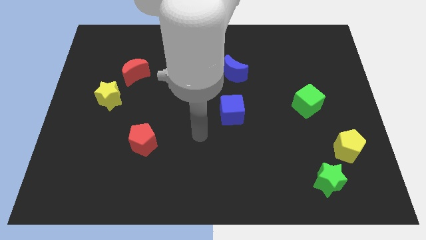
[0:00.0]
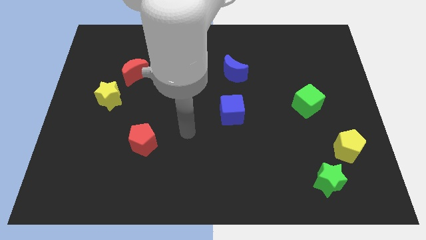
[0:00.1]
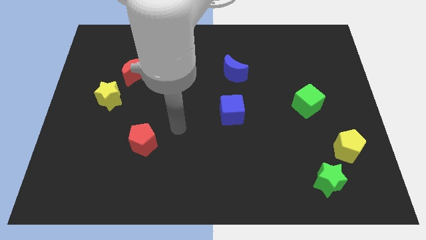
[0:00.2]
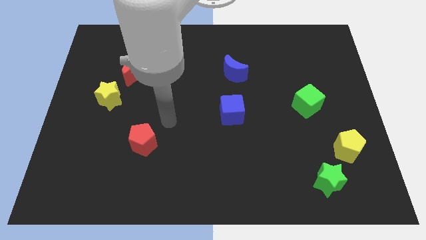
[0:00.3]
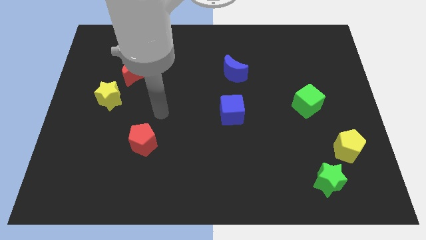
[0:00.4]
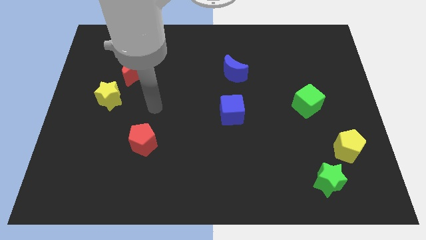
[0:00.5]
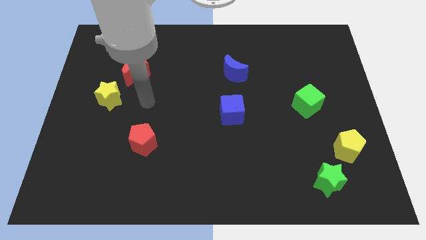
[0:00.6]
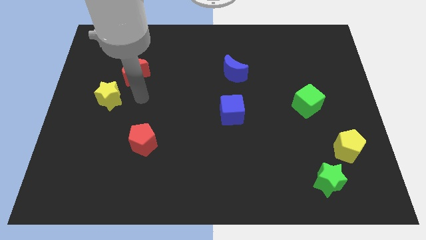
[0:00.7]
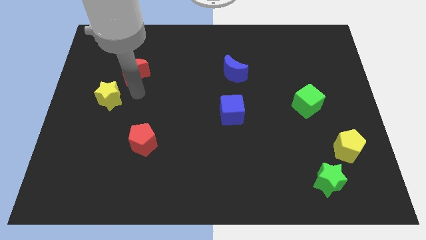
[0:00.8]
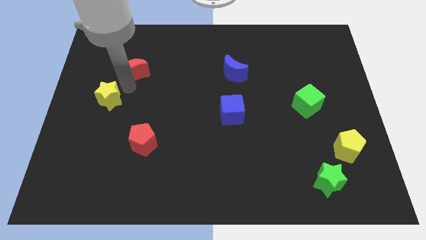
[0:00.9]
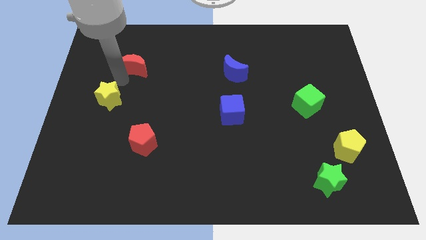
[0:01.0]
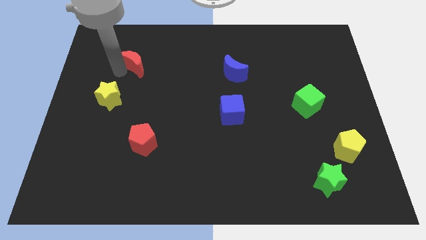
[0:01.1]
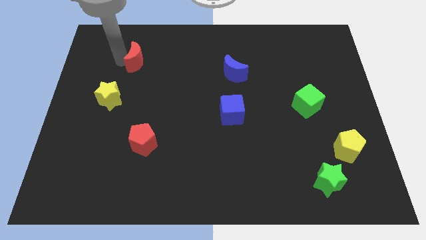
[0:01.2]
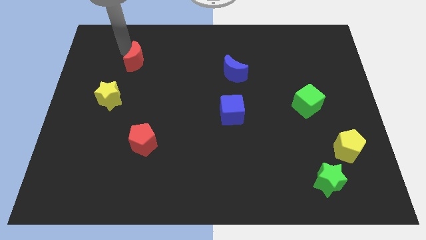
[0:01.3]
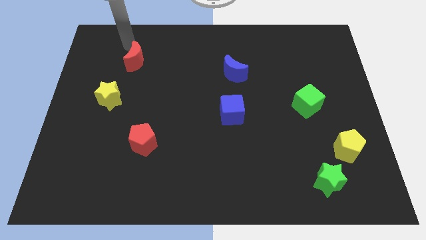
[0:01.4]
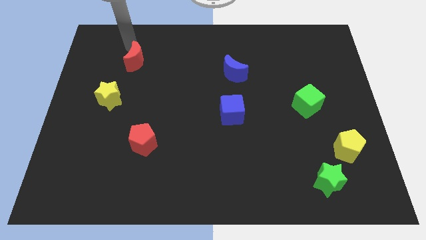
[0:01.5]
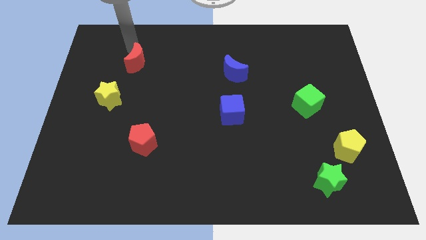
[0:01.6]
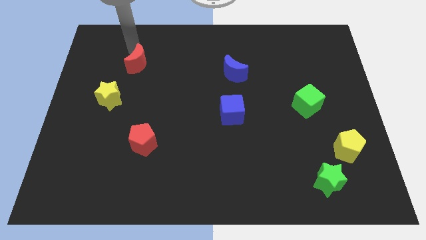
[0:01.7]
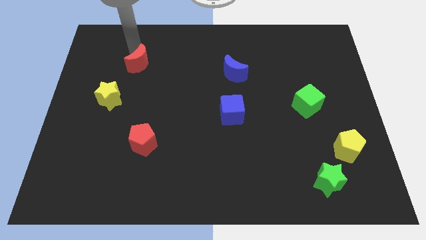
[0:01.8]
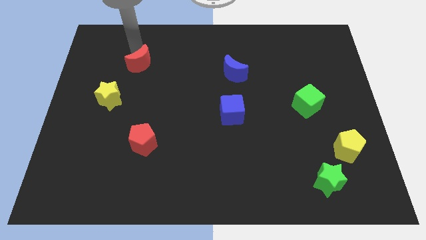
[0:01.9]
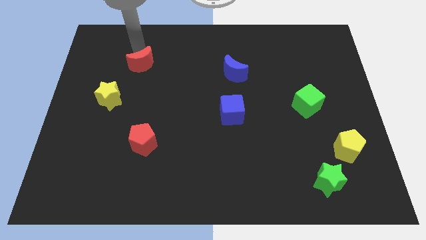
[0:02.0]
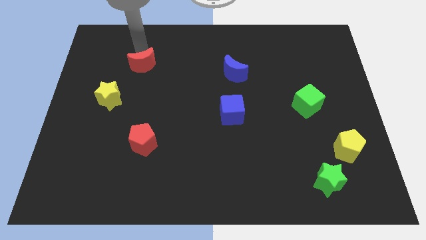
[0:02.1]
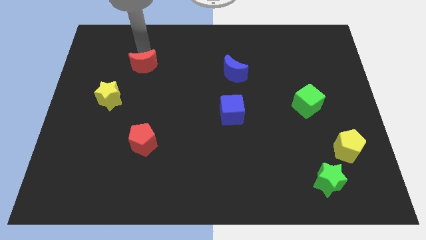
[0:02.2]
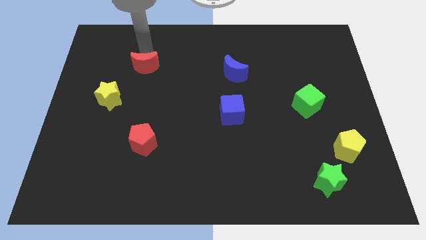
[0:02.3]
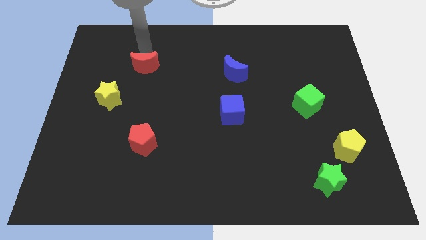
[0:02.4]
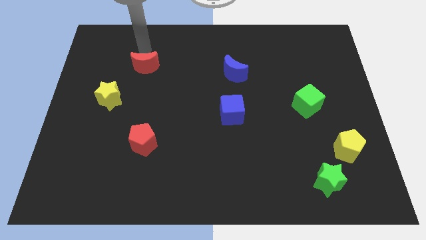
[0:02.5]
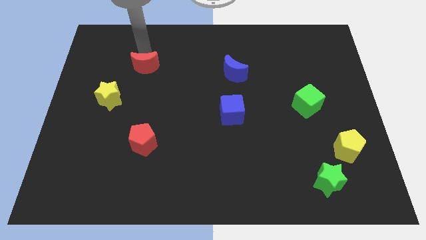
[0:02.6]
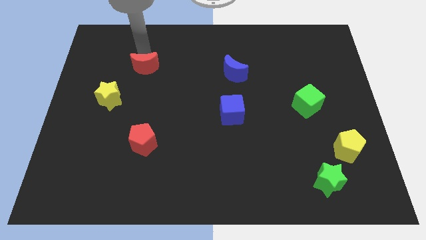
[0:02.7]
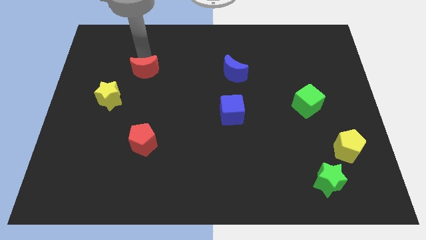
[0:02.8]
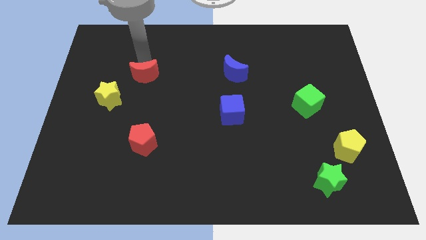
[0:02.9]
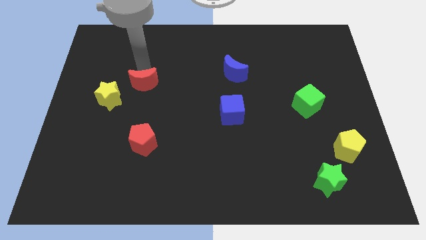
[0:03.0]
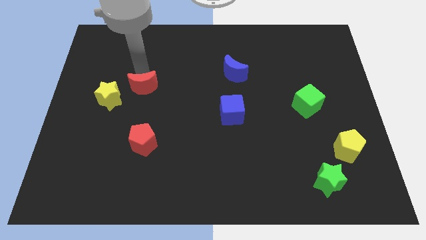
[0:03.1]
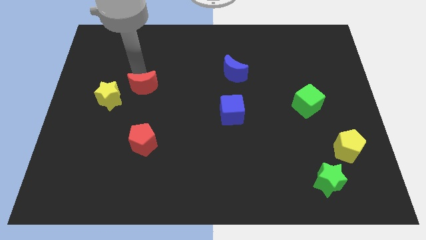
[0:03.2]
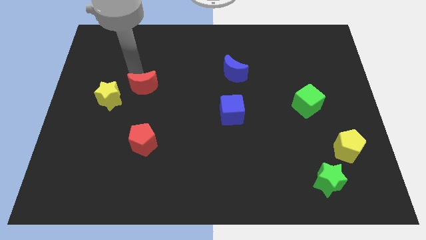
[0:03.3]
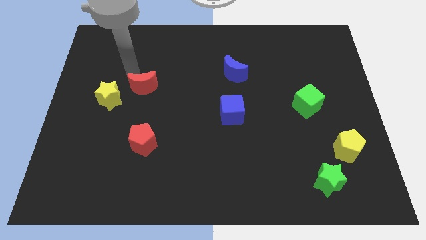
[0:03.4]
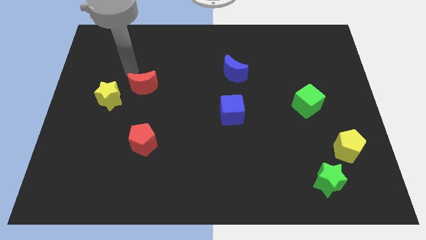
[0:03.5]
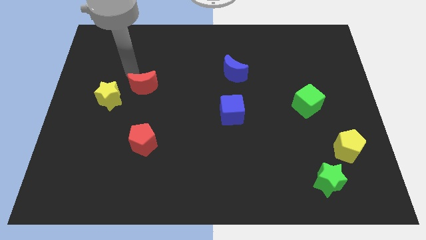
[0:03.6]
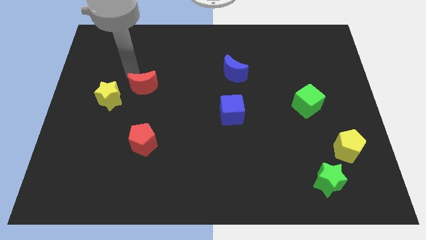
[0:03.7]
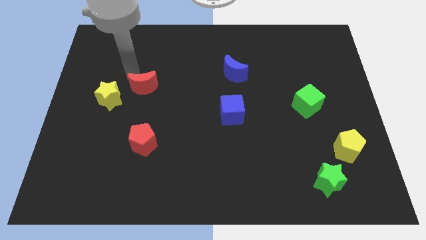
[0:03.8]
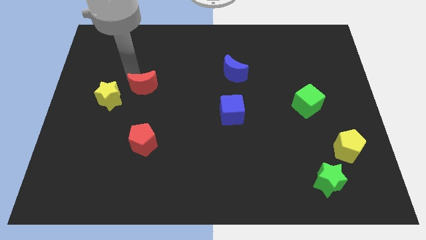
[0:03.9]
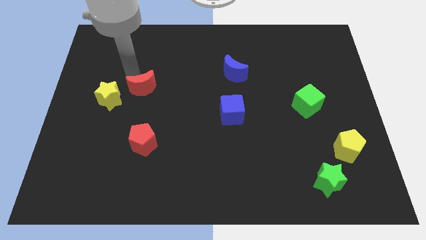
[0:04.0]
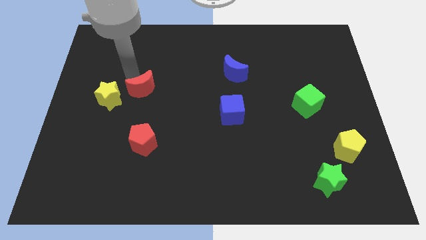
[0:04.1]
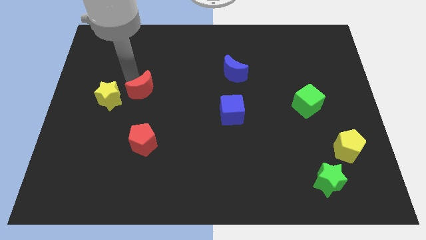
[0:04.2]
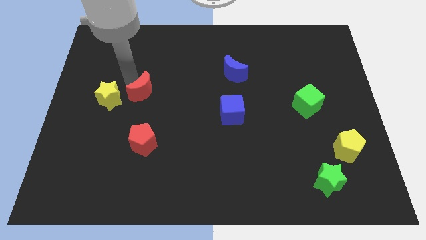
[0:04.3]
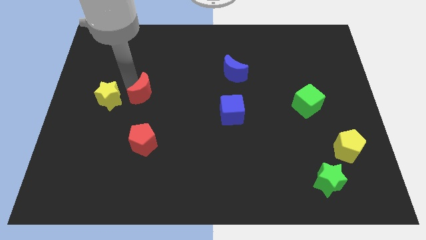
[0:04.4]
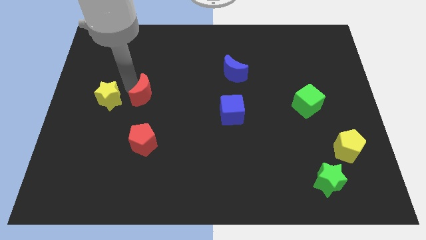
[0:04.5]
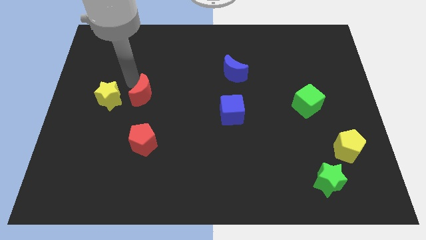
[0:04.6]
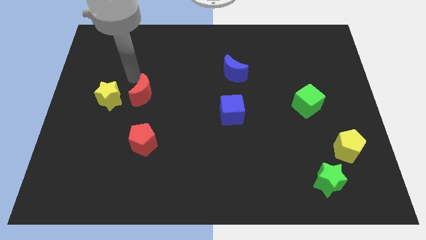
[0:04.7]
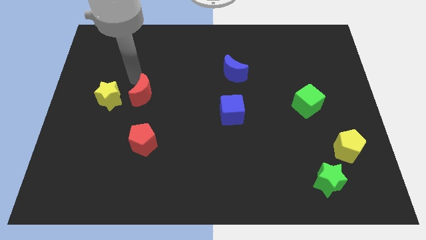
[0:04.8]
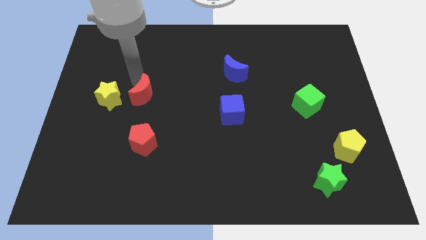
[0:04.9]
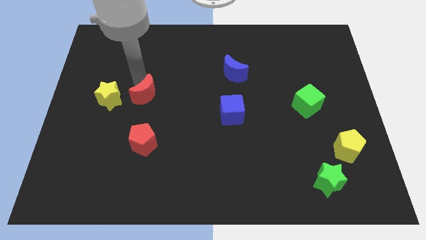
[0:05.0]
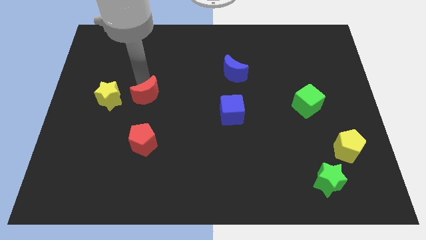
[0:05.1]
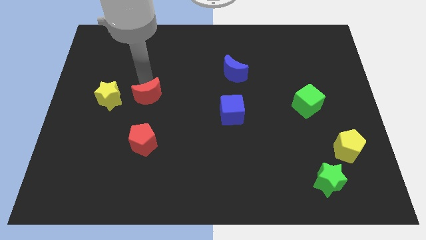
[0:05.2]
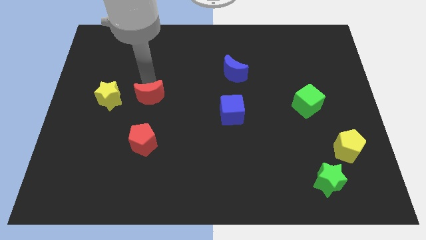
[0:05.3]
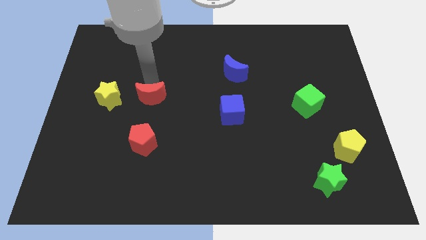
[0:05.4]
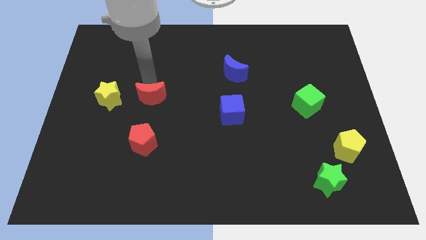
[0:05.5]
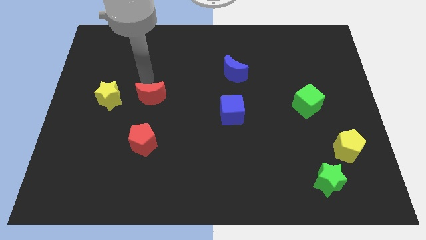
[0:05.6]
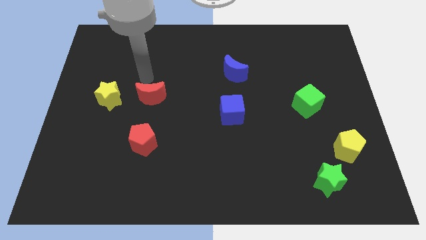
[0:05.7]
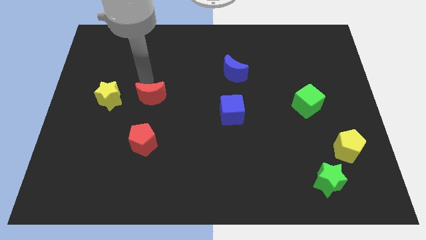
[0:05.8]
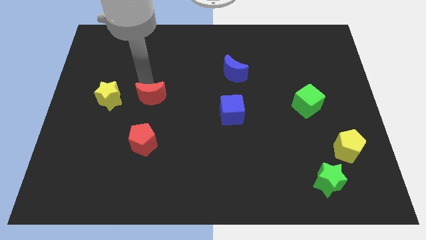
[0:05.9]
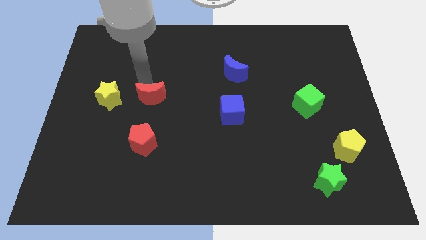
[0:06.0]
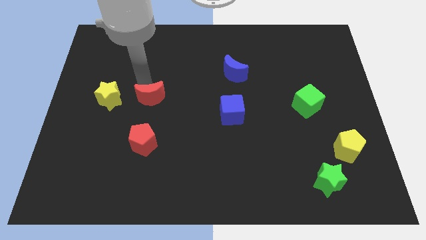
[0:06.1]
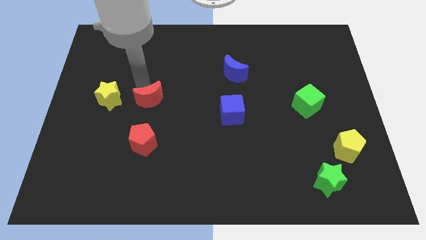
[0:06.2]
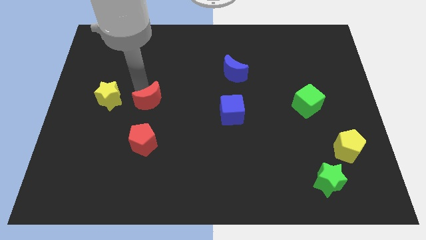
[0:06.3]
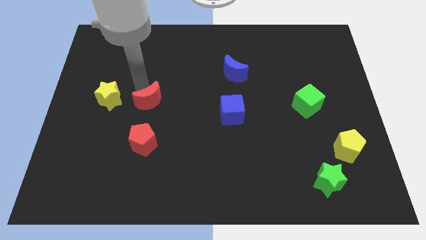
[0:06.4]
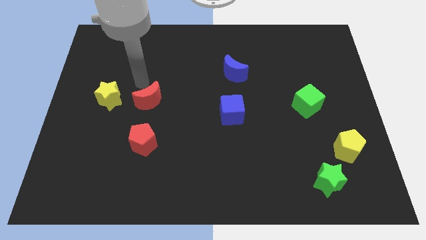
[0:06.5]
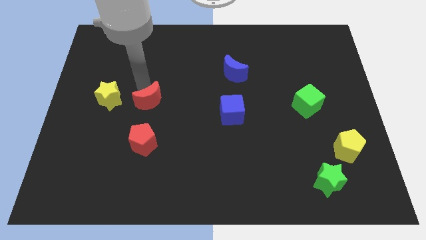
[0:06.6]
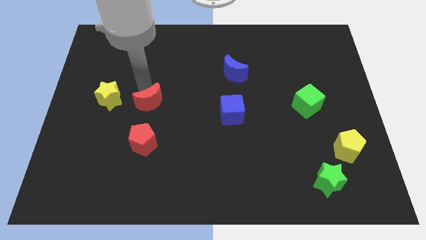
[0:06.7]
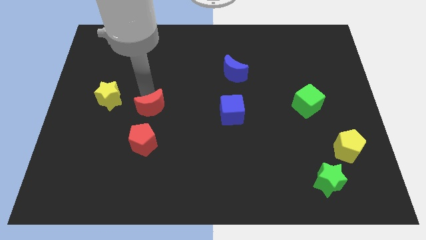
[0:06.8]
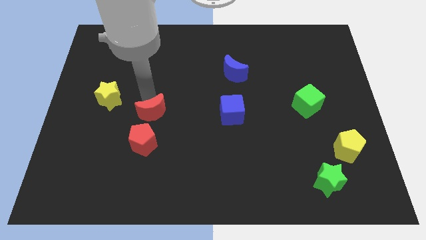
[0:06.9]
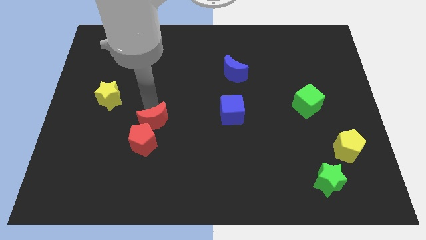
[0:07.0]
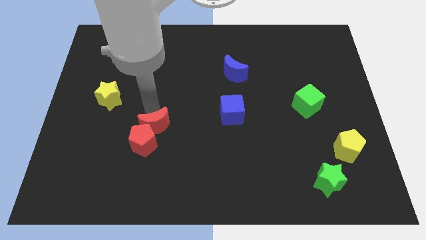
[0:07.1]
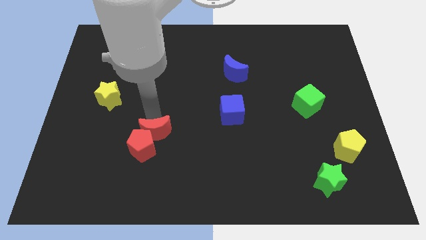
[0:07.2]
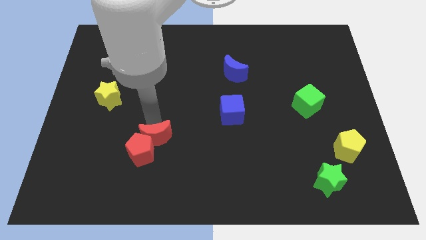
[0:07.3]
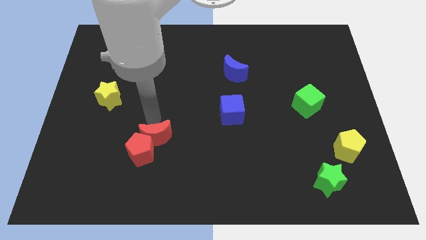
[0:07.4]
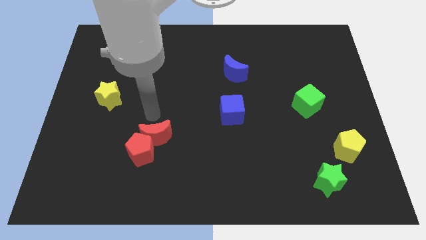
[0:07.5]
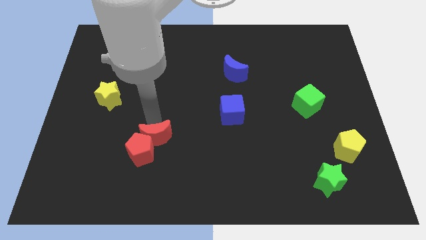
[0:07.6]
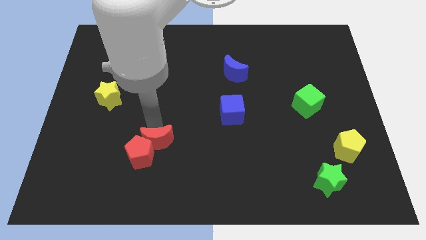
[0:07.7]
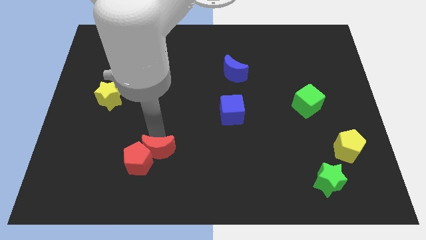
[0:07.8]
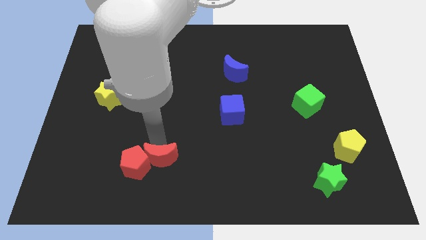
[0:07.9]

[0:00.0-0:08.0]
put the red moon to the bottom right side of the red pentagon
